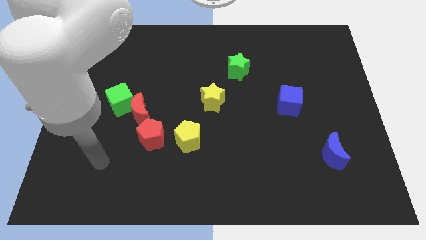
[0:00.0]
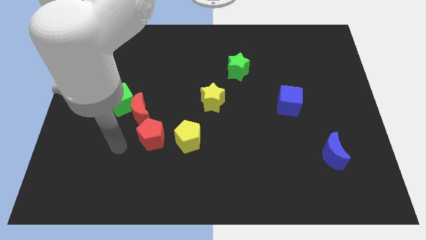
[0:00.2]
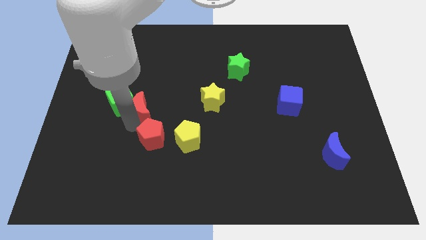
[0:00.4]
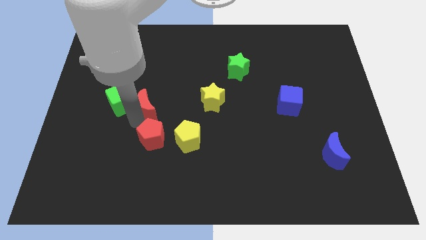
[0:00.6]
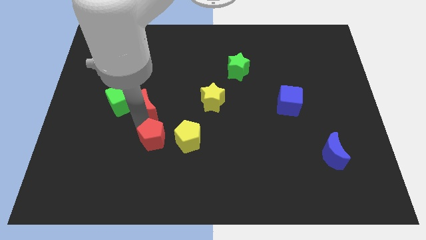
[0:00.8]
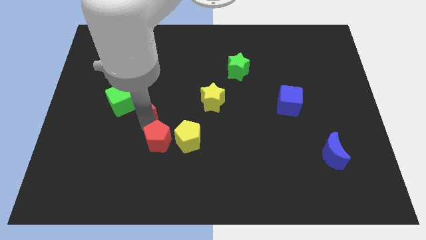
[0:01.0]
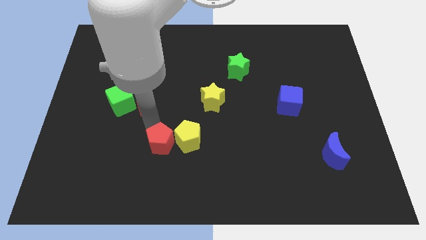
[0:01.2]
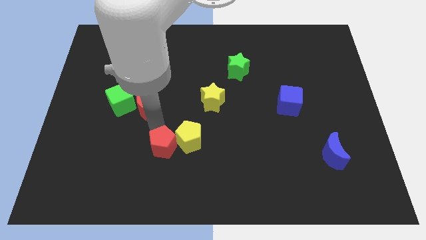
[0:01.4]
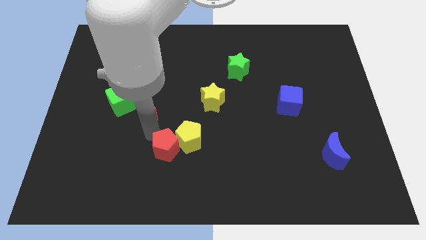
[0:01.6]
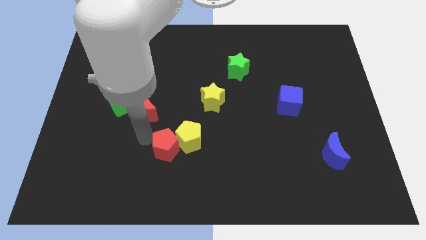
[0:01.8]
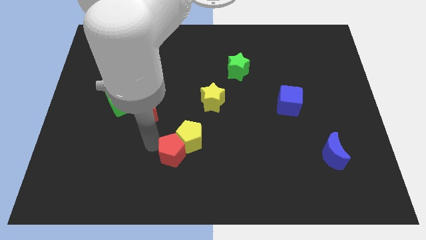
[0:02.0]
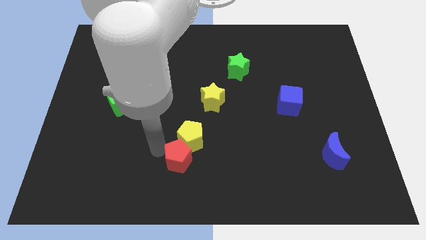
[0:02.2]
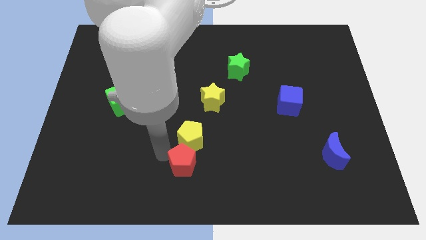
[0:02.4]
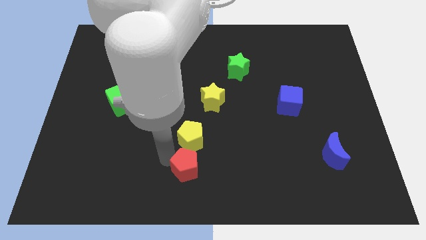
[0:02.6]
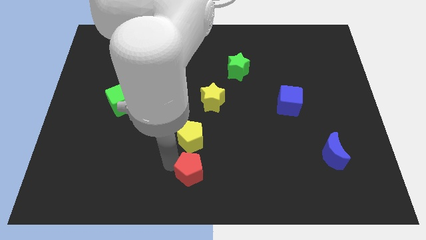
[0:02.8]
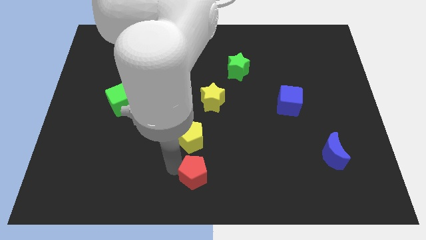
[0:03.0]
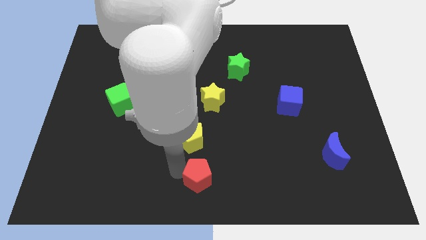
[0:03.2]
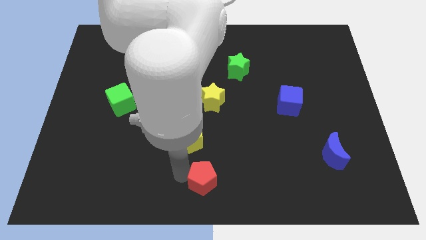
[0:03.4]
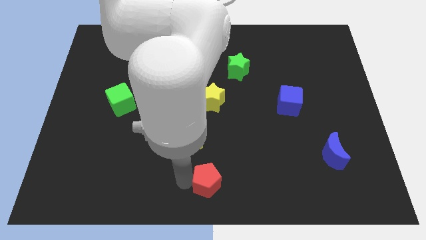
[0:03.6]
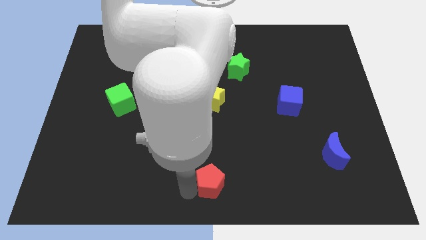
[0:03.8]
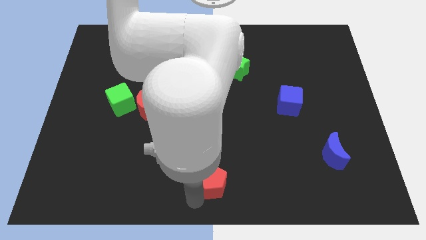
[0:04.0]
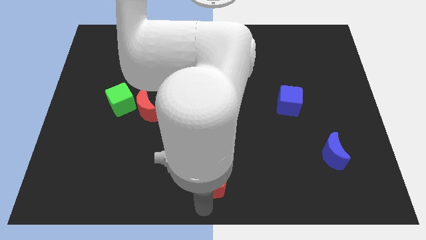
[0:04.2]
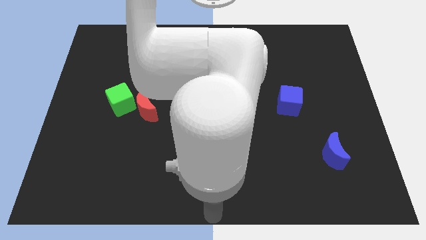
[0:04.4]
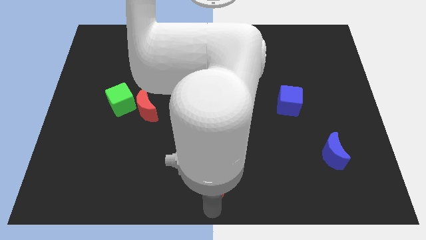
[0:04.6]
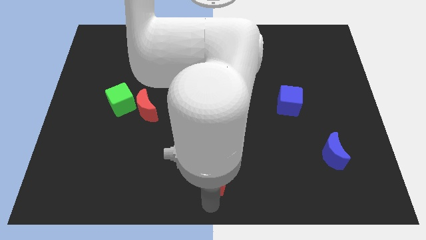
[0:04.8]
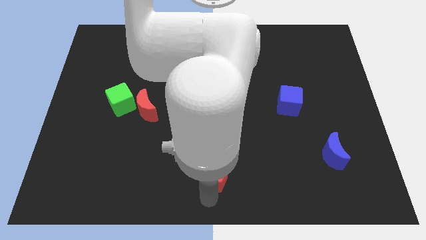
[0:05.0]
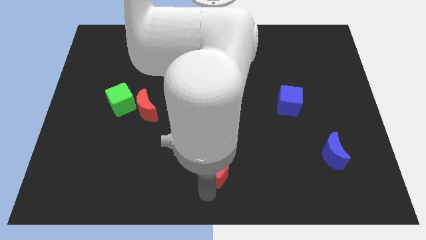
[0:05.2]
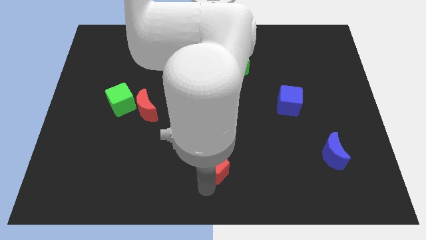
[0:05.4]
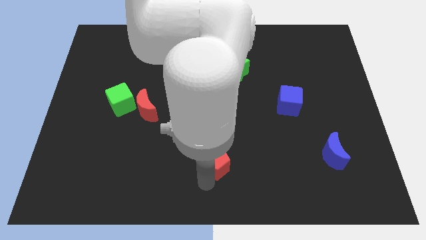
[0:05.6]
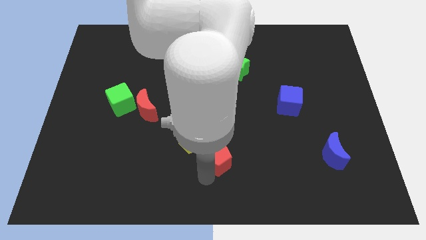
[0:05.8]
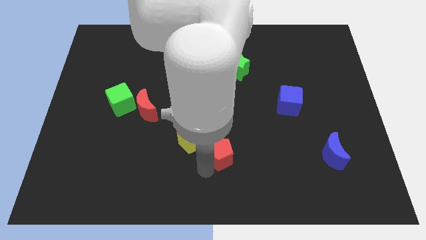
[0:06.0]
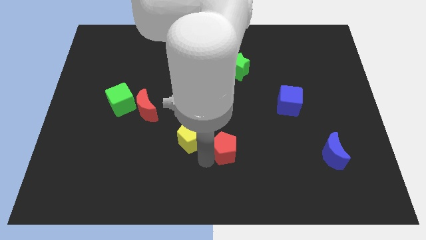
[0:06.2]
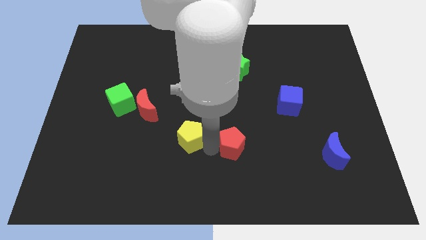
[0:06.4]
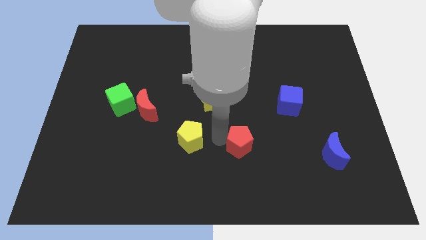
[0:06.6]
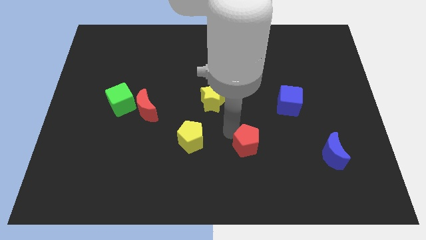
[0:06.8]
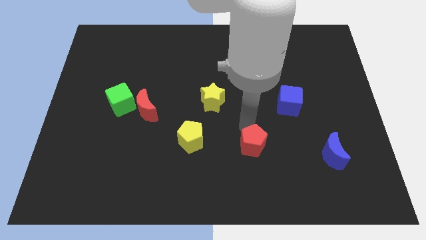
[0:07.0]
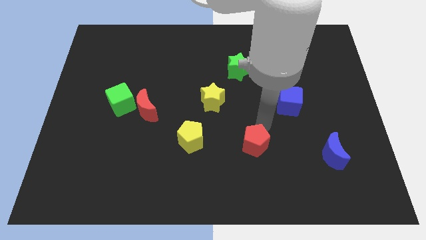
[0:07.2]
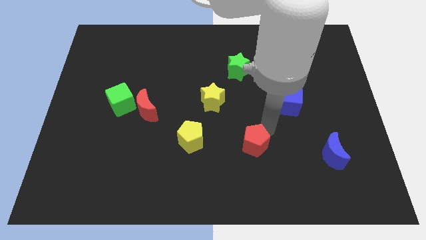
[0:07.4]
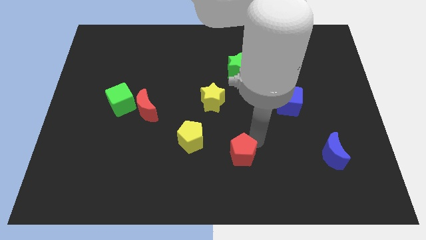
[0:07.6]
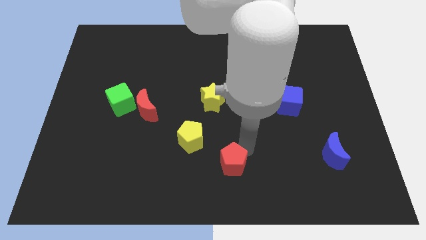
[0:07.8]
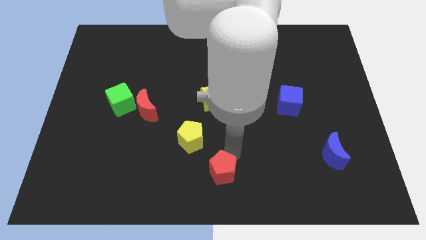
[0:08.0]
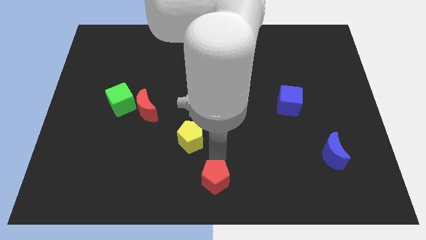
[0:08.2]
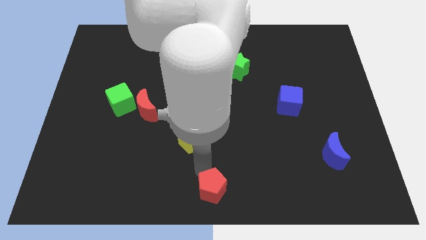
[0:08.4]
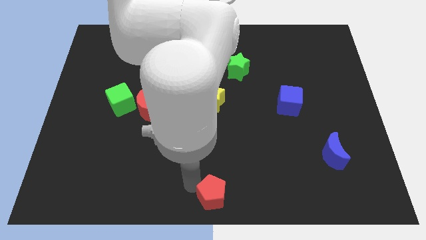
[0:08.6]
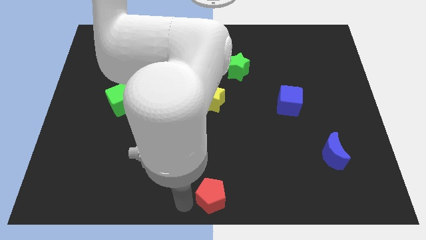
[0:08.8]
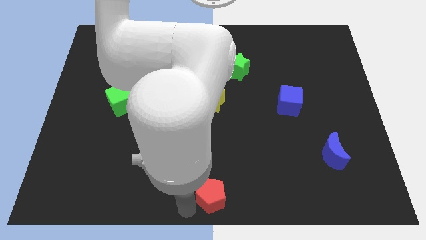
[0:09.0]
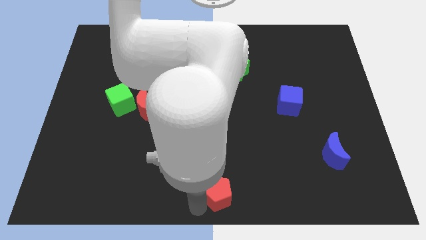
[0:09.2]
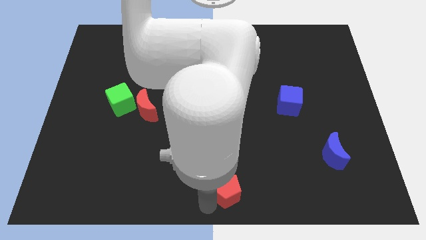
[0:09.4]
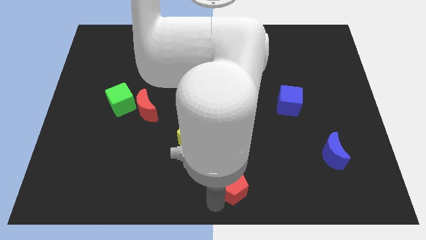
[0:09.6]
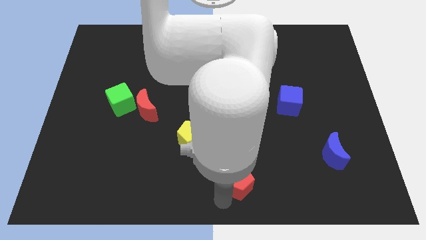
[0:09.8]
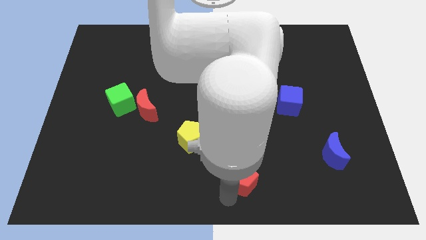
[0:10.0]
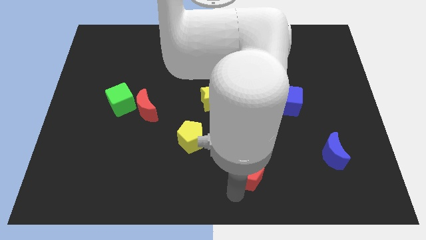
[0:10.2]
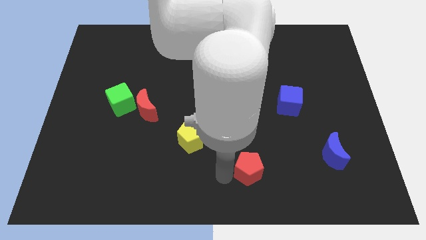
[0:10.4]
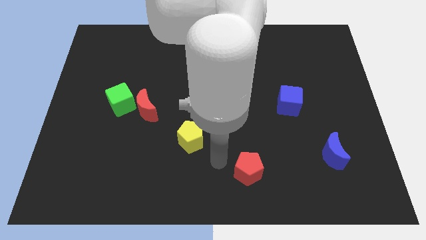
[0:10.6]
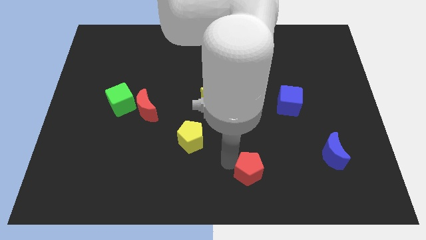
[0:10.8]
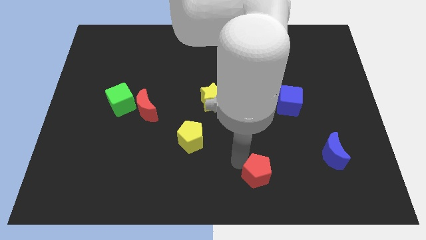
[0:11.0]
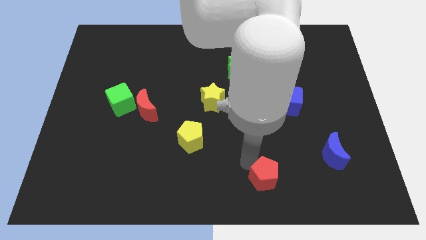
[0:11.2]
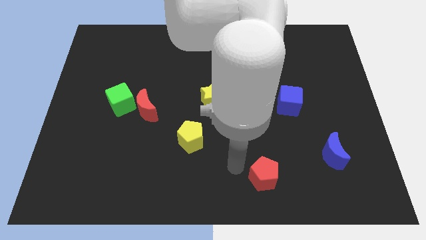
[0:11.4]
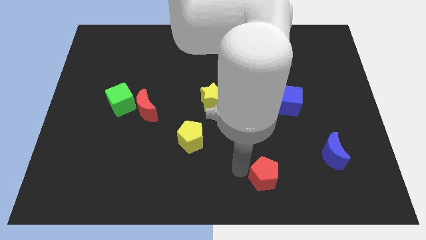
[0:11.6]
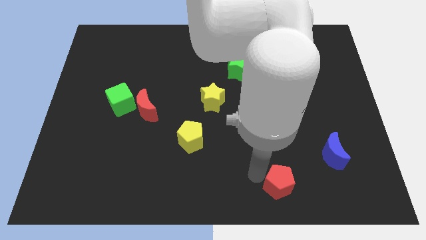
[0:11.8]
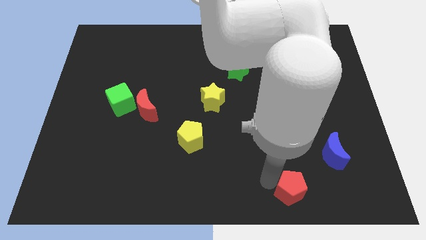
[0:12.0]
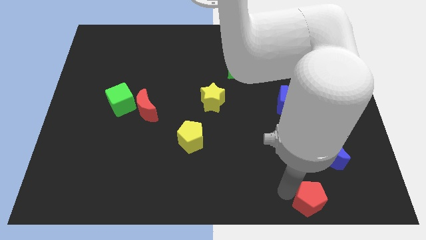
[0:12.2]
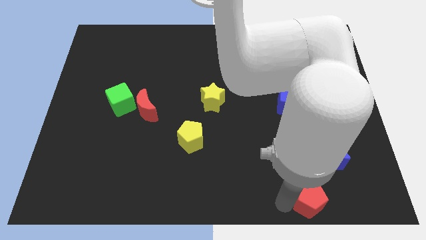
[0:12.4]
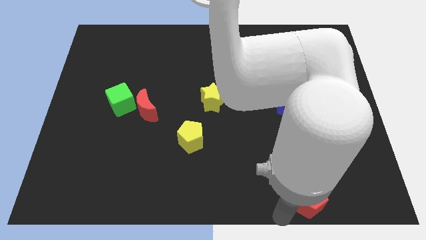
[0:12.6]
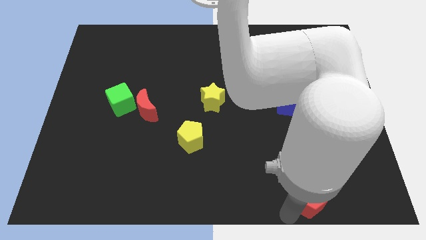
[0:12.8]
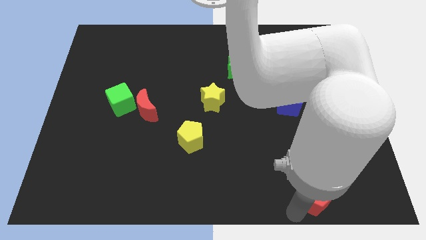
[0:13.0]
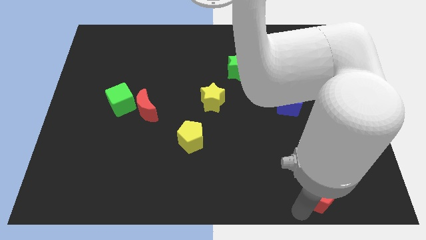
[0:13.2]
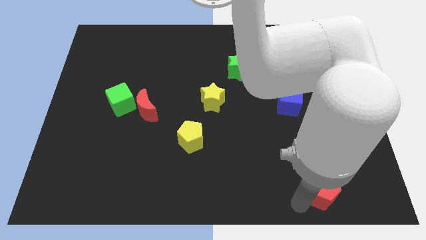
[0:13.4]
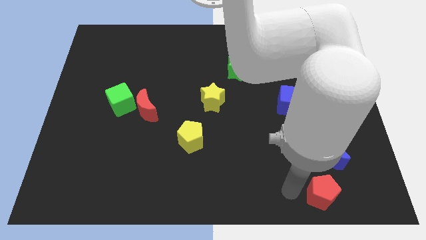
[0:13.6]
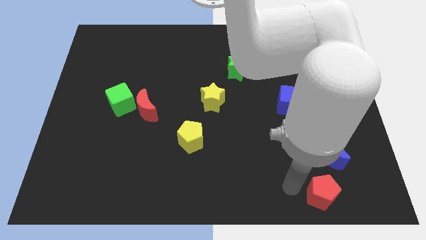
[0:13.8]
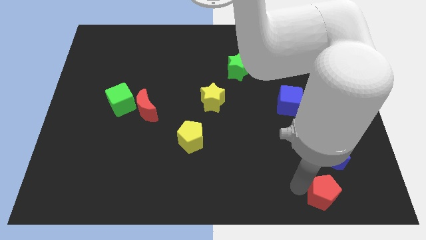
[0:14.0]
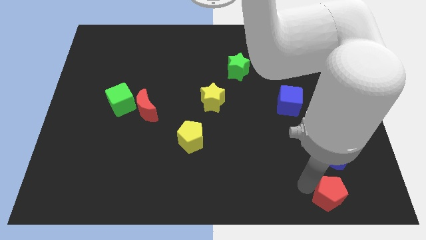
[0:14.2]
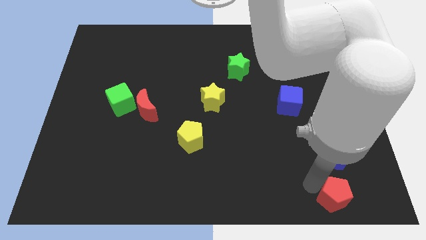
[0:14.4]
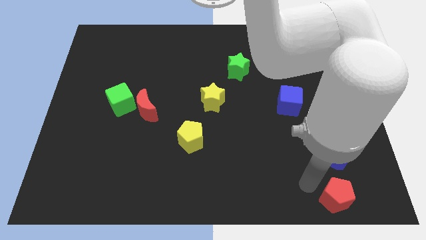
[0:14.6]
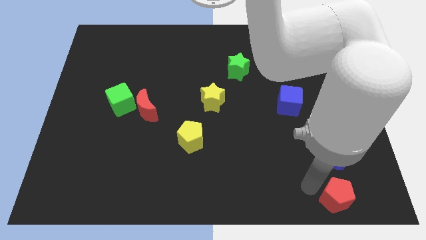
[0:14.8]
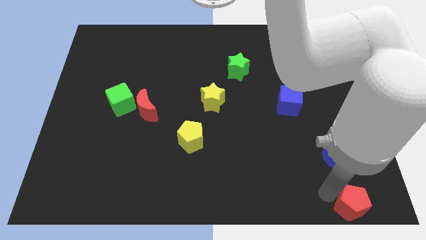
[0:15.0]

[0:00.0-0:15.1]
slide the red pentagon to the lower right corner
